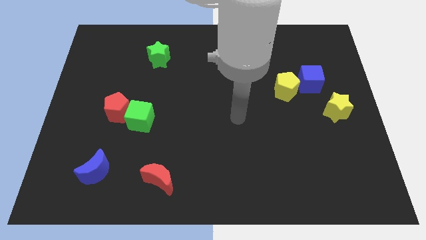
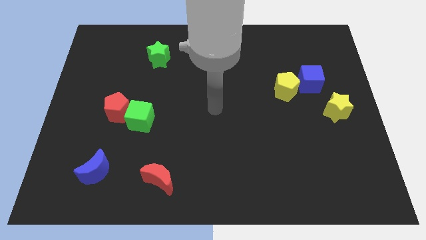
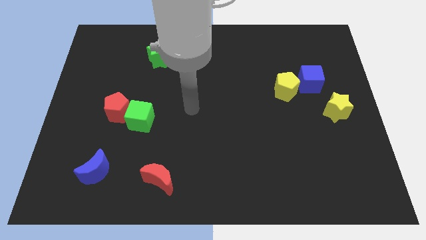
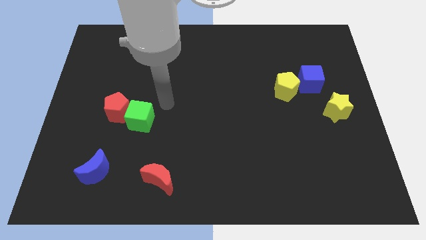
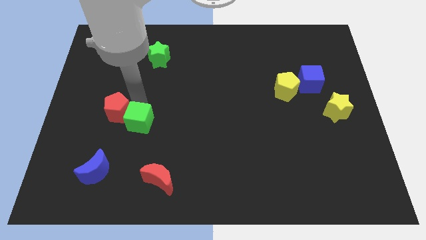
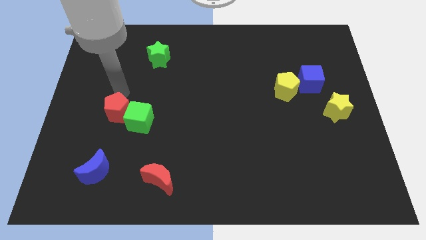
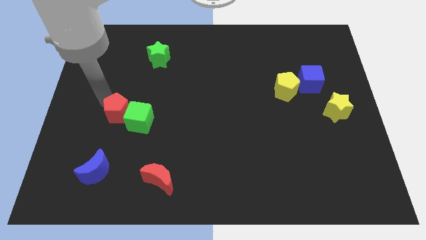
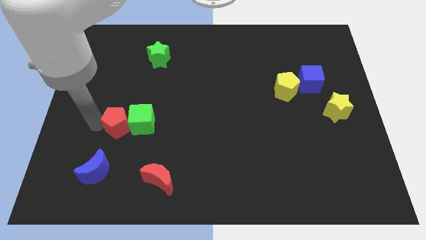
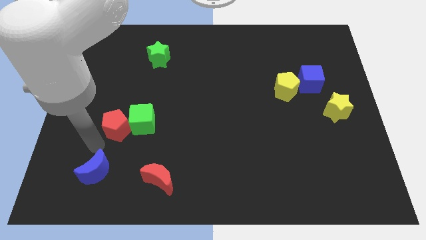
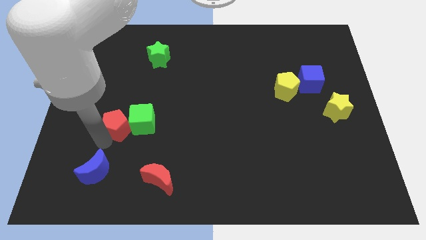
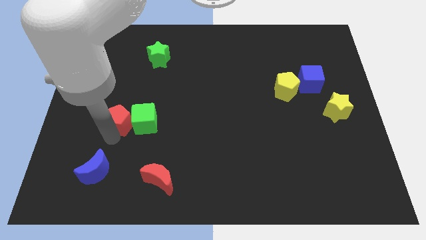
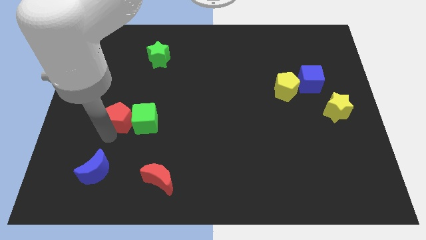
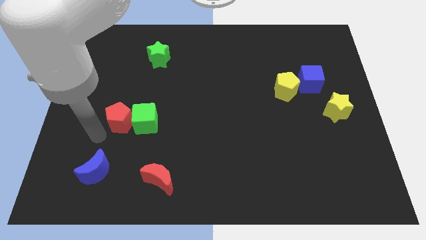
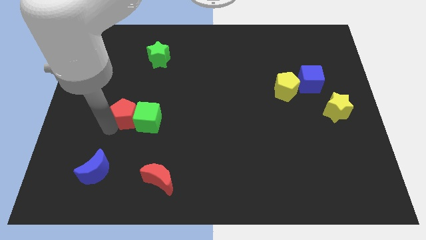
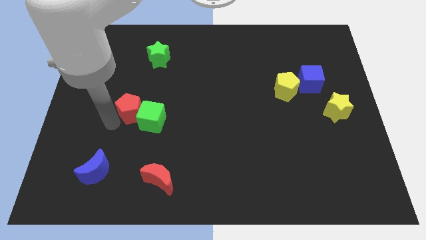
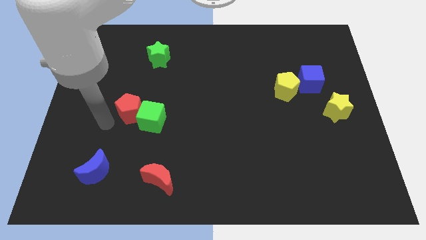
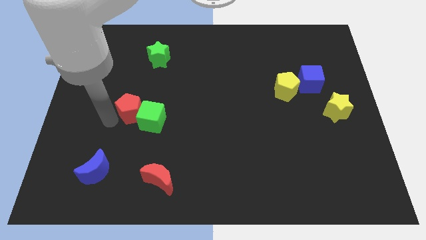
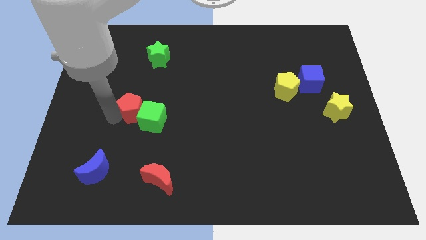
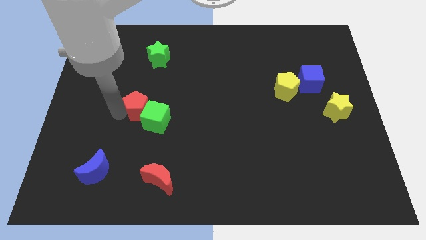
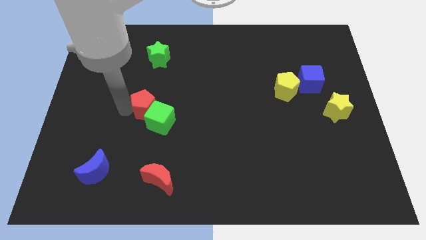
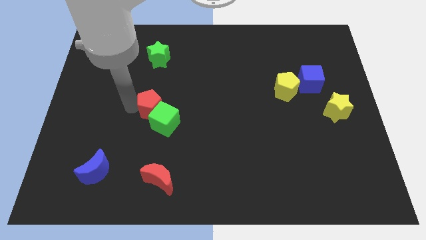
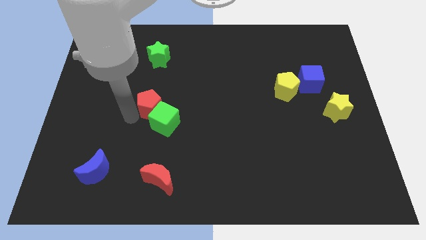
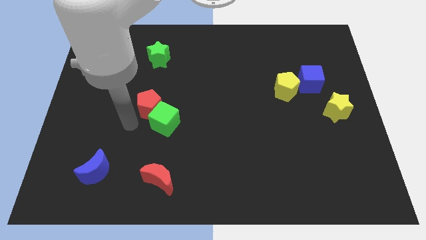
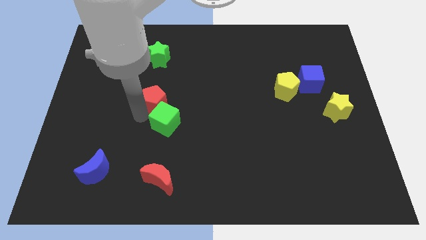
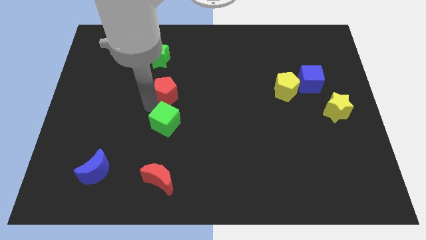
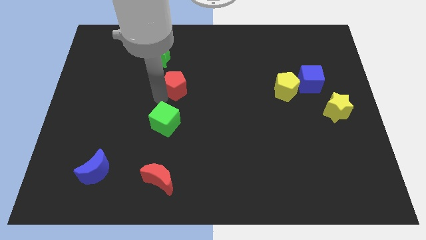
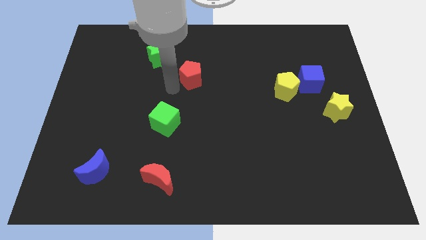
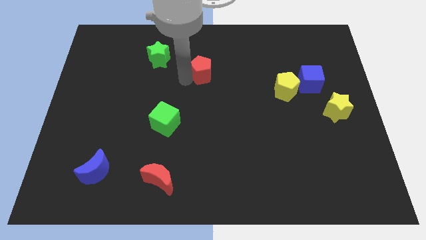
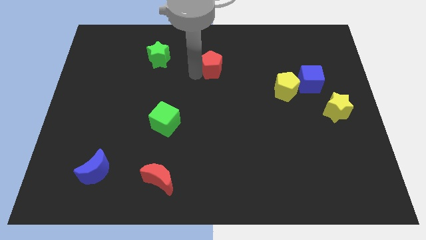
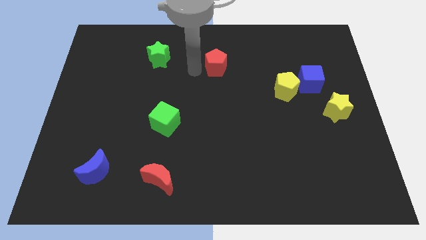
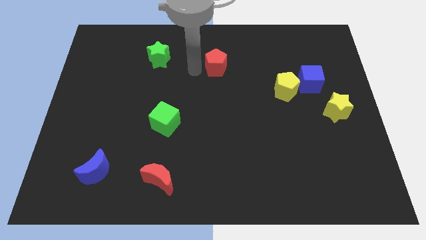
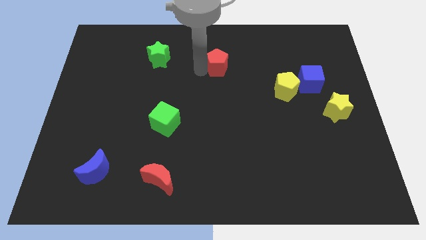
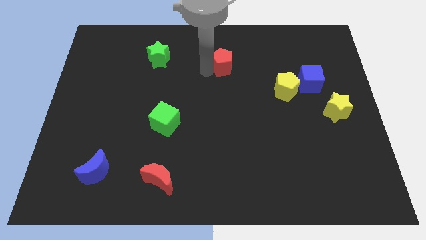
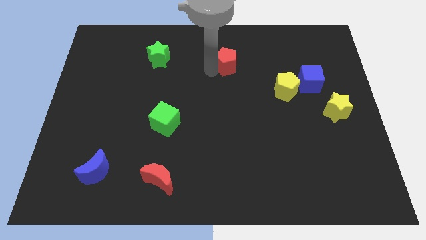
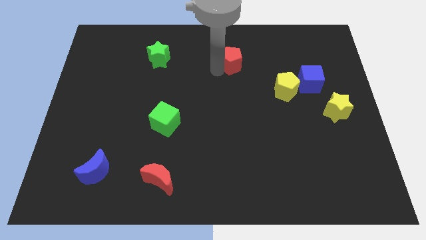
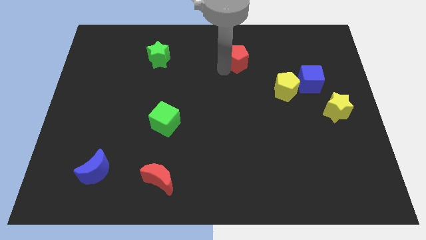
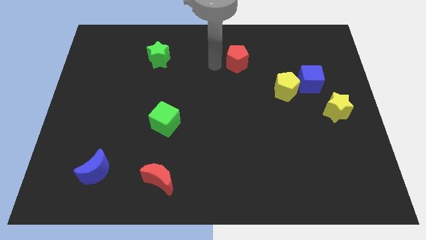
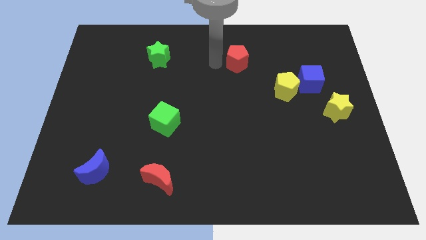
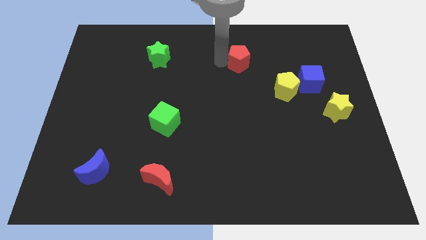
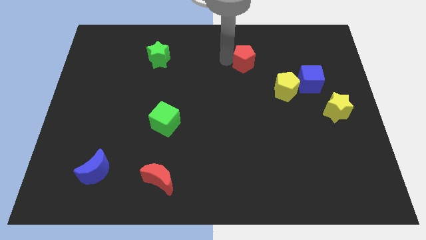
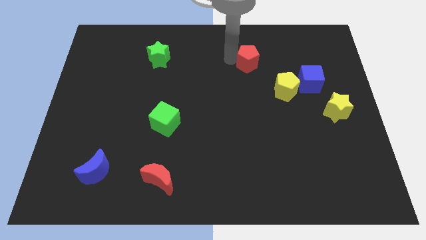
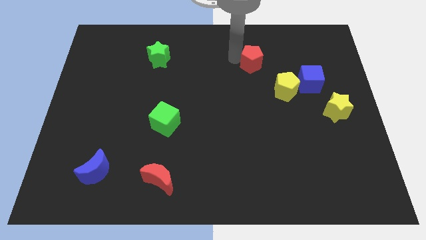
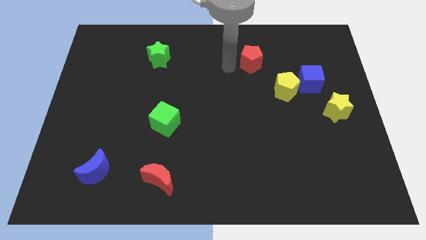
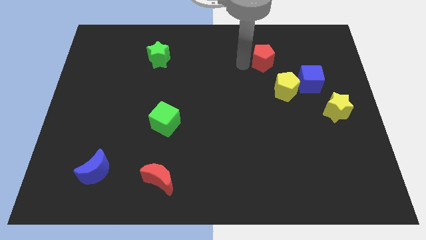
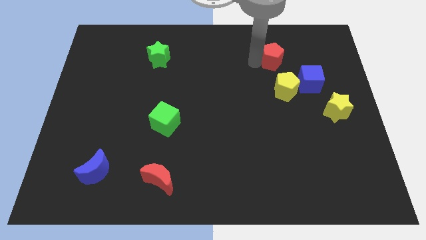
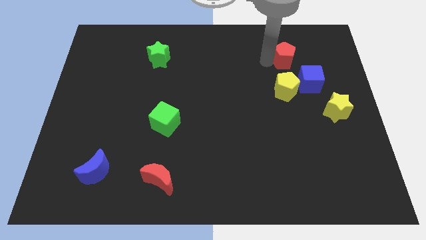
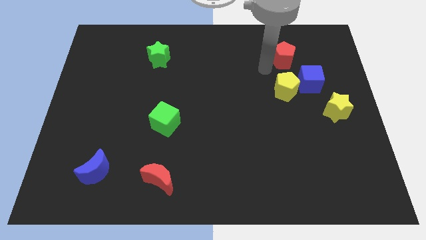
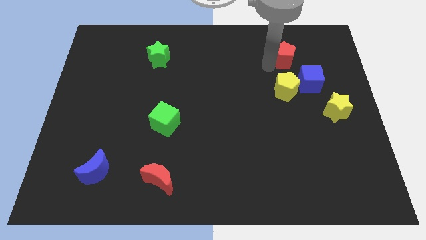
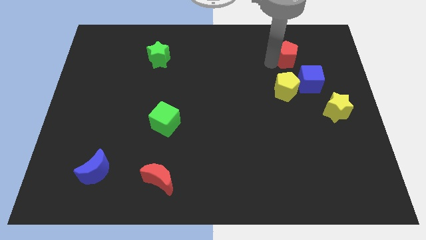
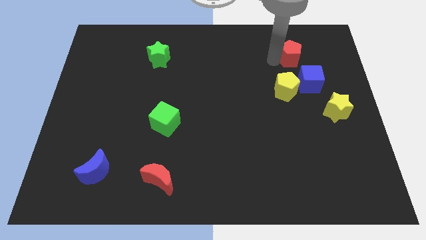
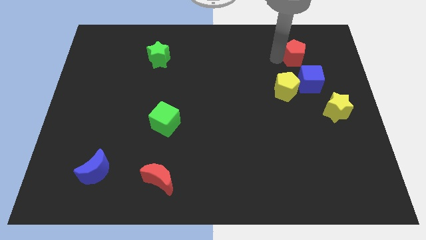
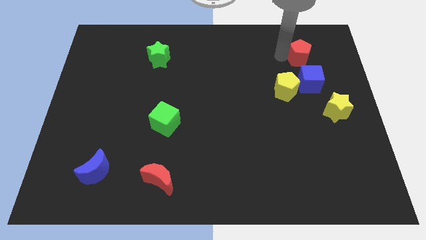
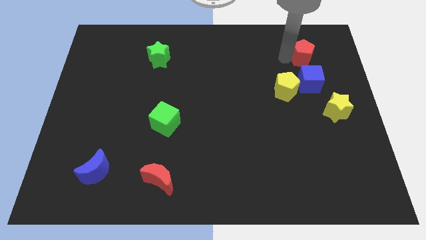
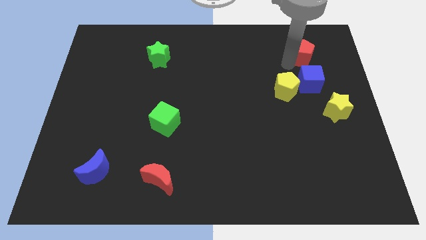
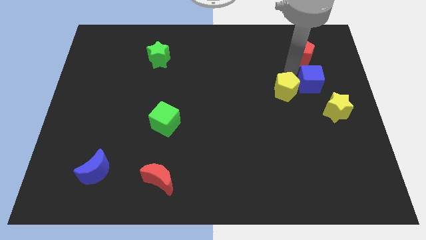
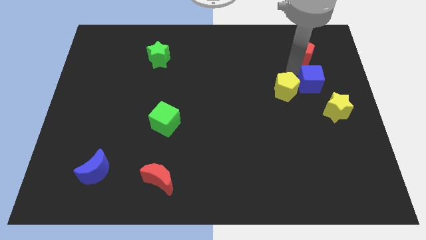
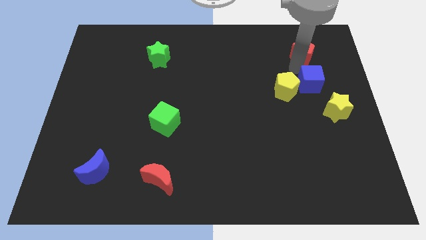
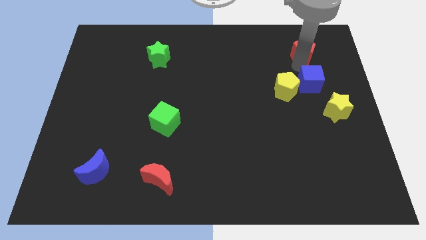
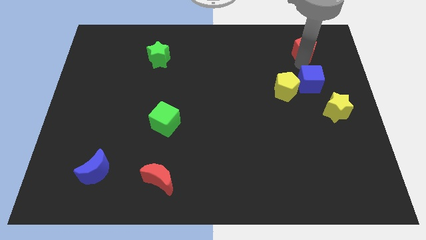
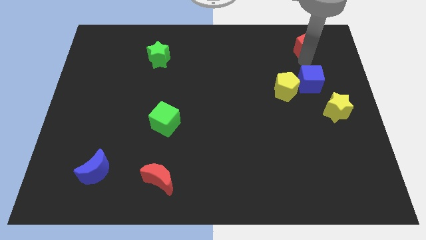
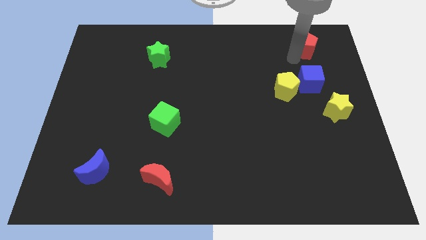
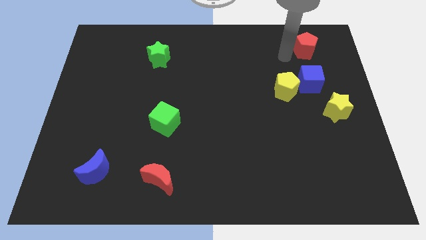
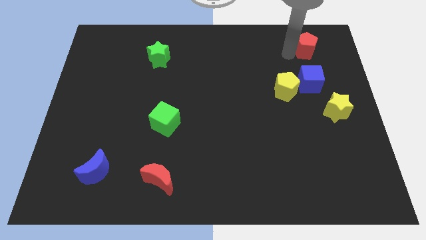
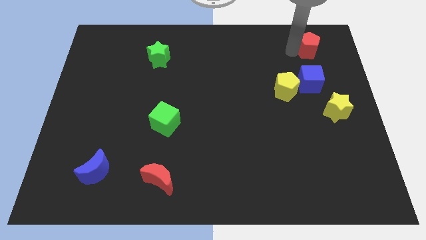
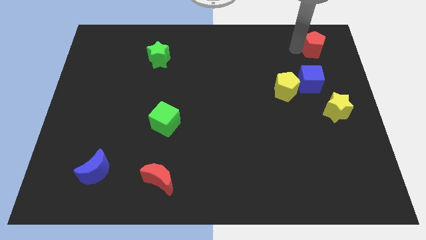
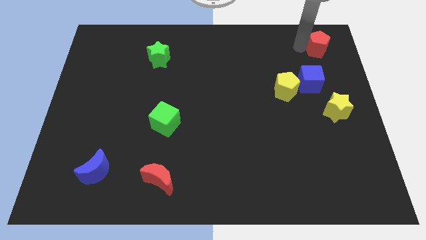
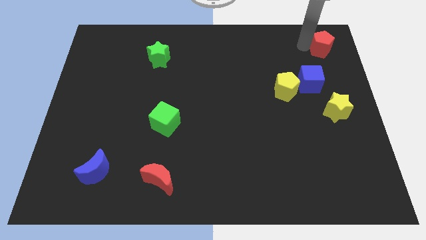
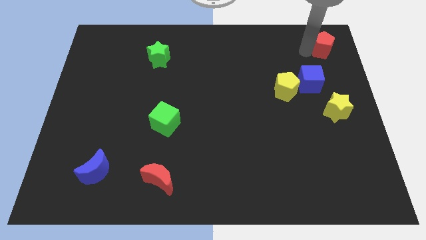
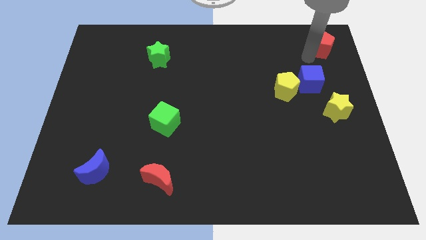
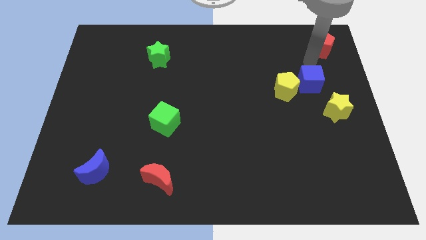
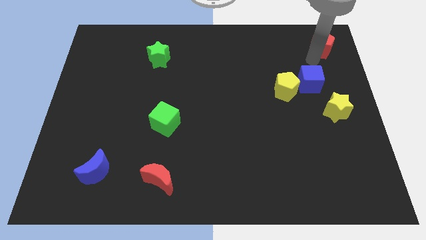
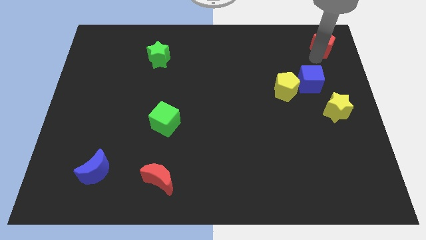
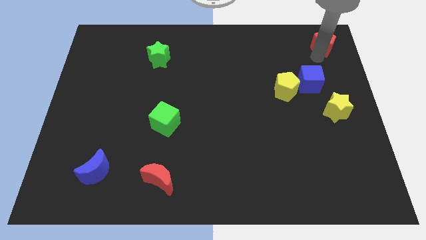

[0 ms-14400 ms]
move the red pentagon to the top right corner
